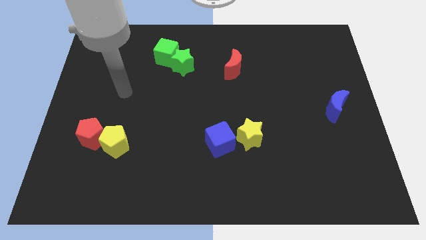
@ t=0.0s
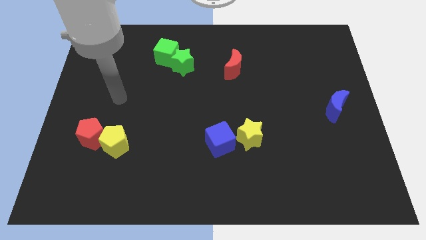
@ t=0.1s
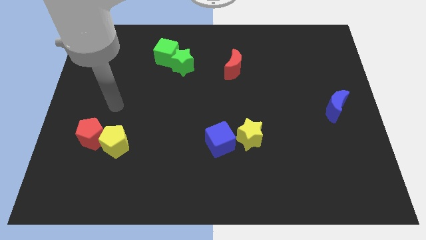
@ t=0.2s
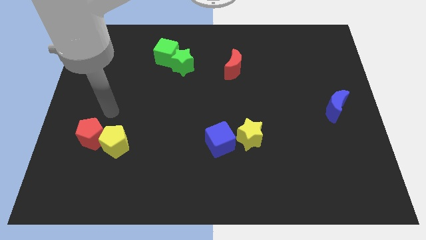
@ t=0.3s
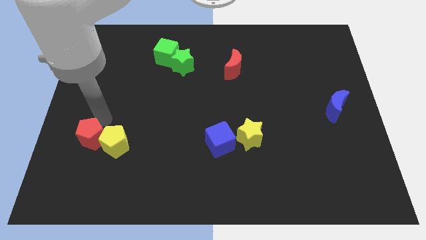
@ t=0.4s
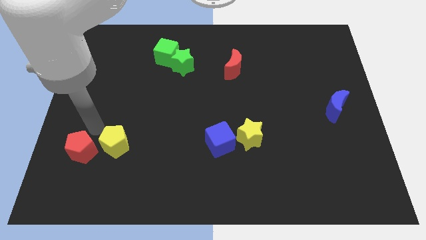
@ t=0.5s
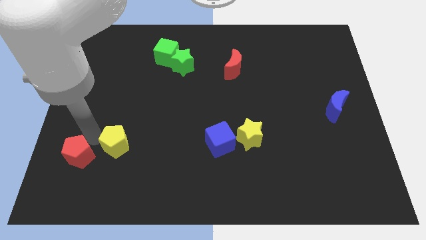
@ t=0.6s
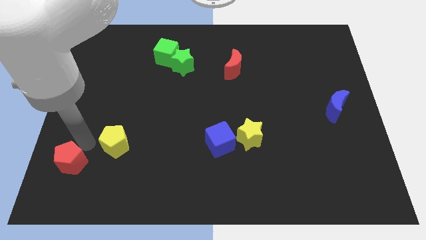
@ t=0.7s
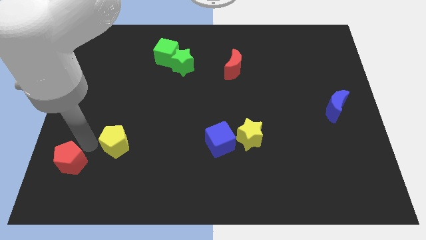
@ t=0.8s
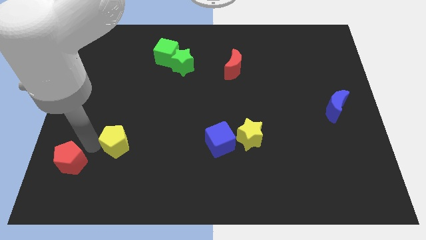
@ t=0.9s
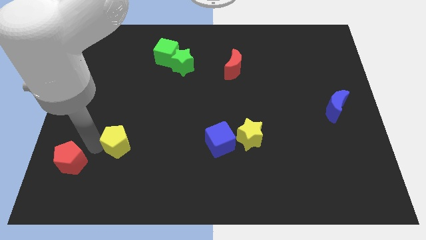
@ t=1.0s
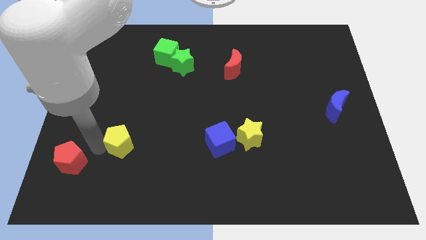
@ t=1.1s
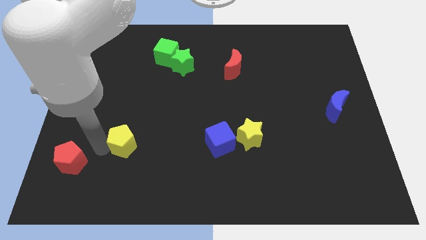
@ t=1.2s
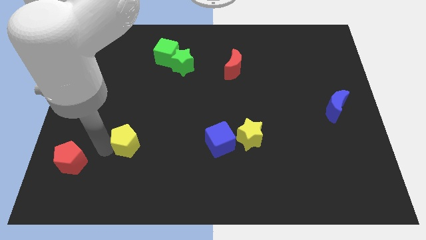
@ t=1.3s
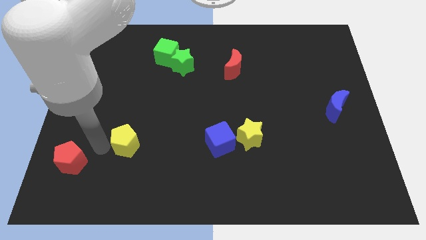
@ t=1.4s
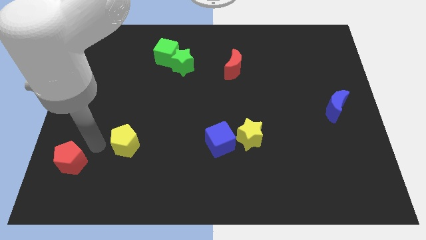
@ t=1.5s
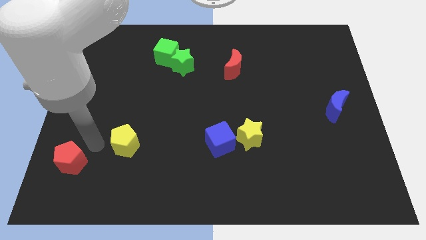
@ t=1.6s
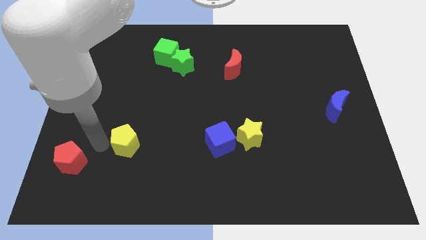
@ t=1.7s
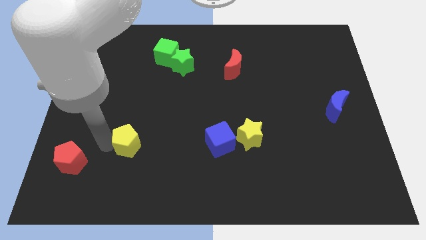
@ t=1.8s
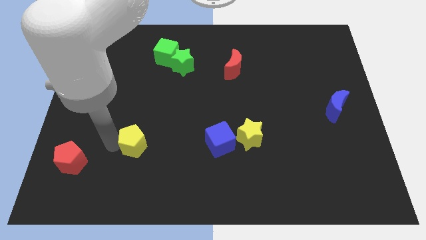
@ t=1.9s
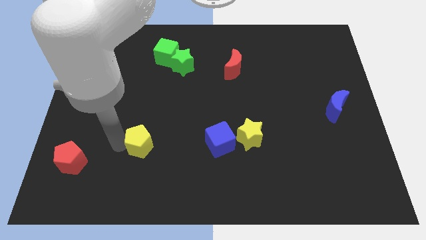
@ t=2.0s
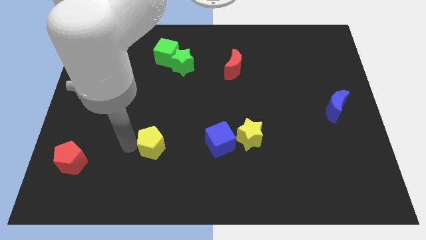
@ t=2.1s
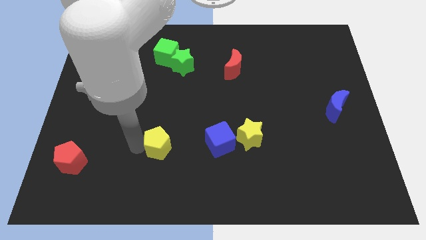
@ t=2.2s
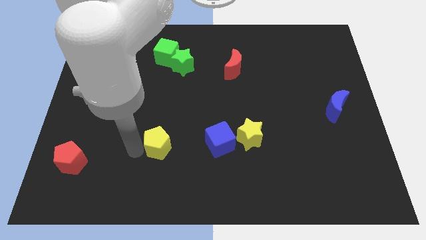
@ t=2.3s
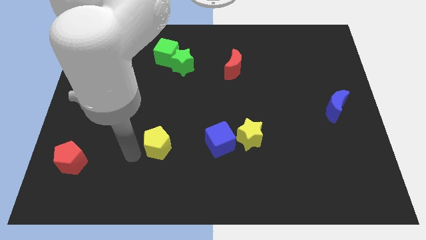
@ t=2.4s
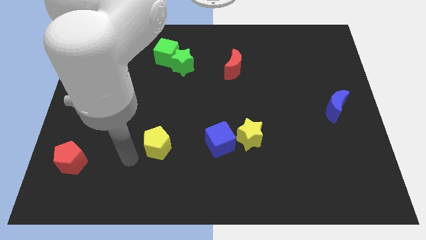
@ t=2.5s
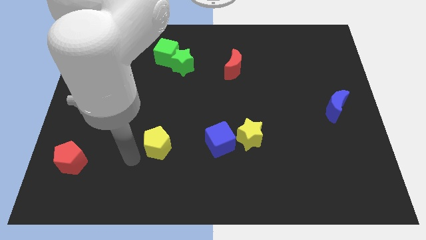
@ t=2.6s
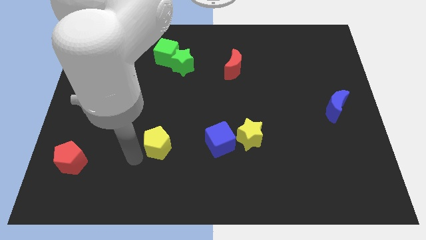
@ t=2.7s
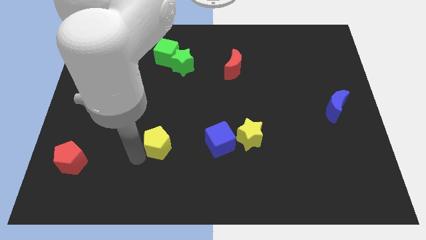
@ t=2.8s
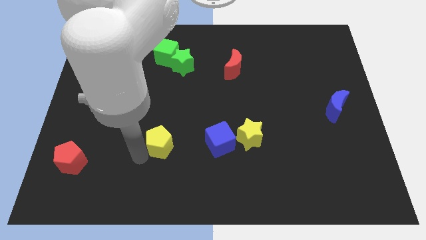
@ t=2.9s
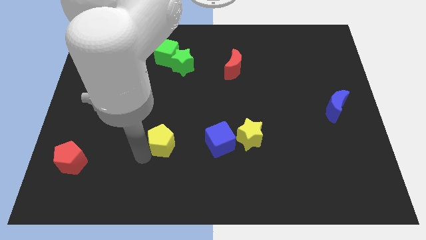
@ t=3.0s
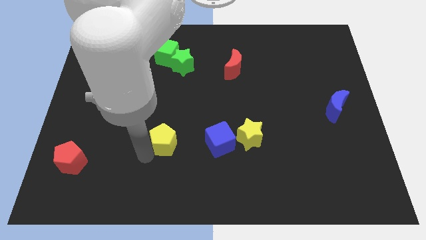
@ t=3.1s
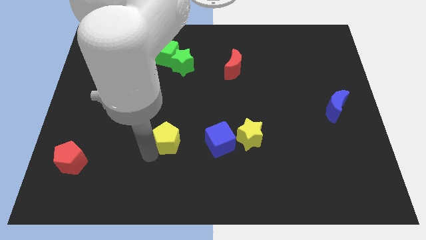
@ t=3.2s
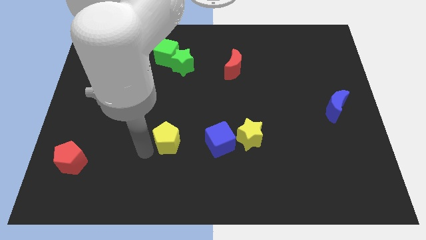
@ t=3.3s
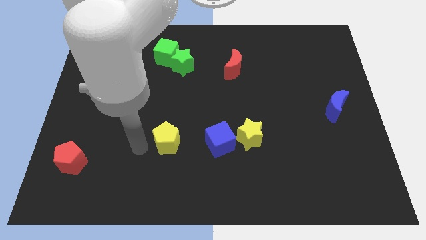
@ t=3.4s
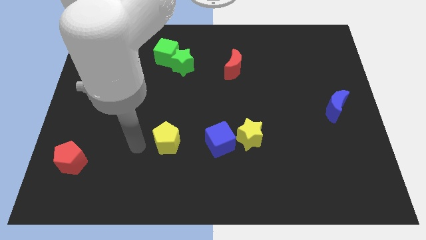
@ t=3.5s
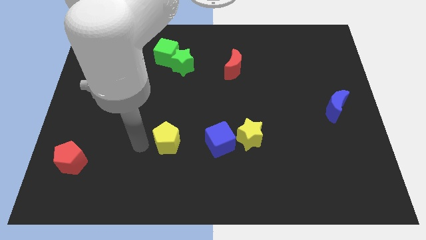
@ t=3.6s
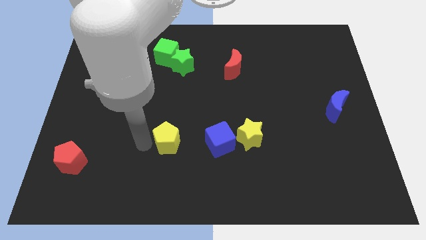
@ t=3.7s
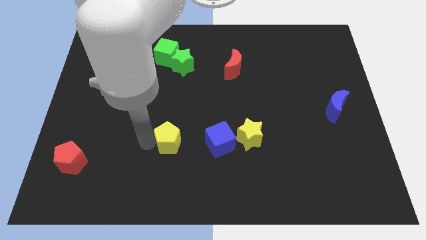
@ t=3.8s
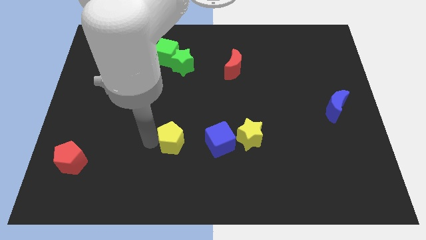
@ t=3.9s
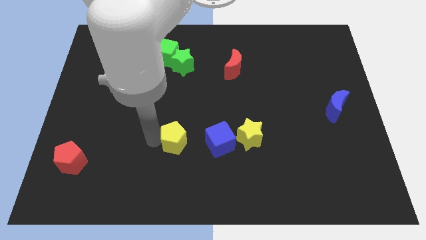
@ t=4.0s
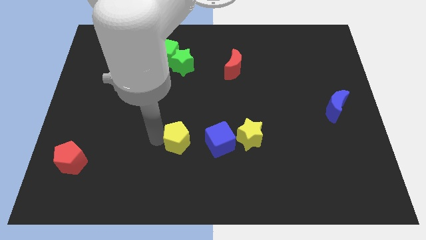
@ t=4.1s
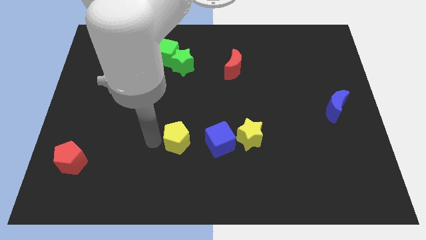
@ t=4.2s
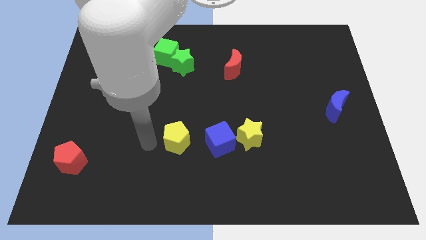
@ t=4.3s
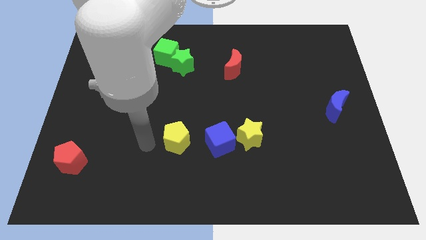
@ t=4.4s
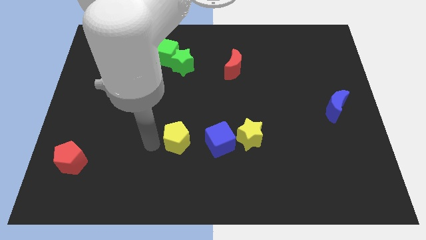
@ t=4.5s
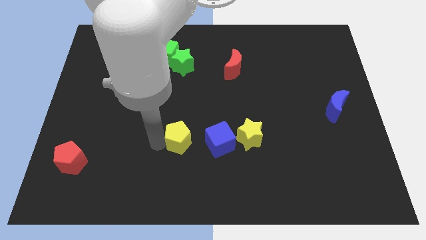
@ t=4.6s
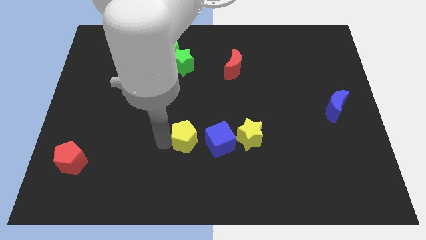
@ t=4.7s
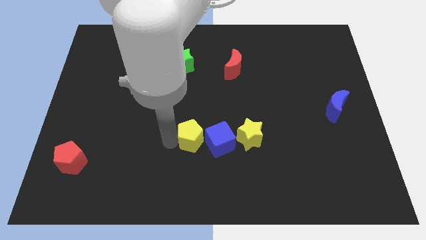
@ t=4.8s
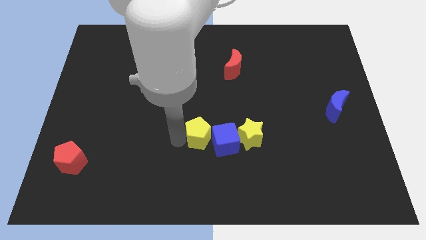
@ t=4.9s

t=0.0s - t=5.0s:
move the yellow pentagon to the blue cube

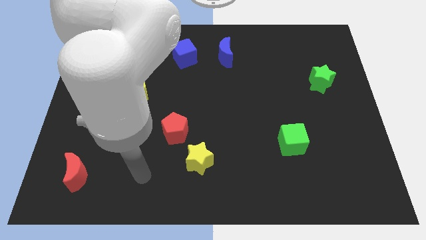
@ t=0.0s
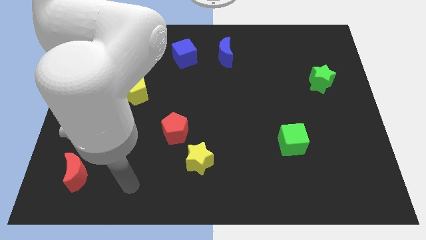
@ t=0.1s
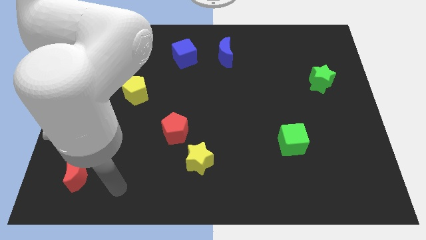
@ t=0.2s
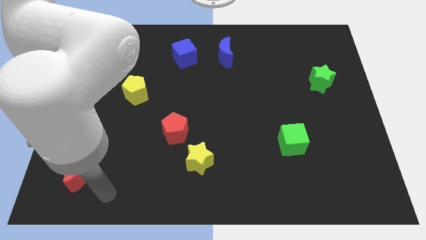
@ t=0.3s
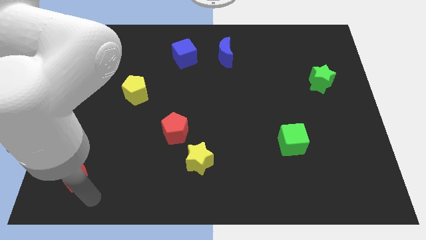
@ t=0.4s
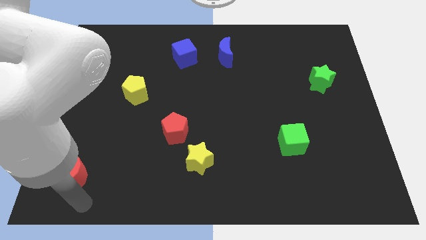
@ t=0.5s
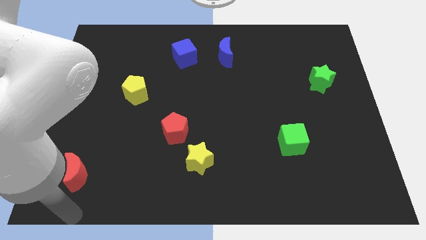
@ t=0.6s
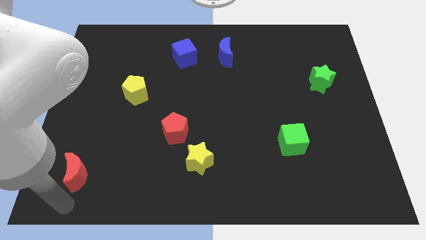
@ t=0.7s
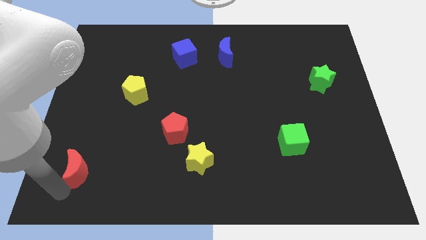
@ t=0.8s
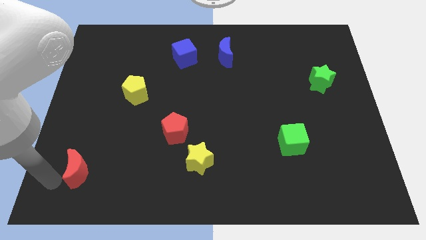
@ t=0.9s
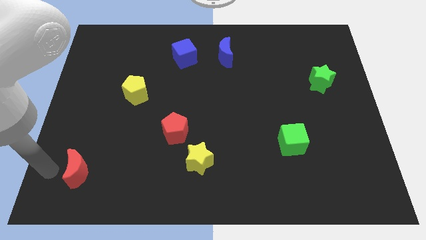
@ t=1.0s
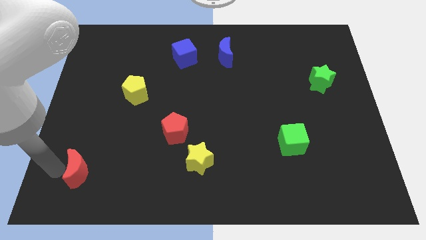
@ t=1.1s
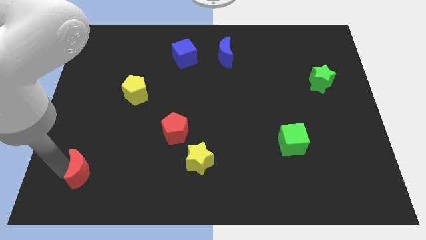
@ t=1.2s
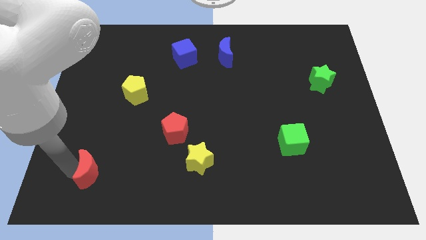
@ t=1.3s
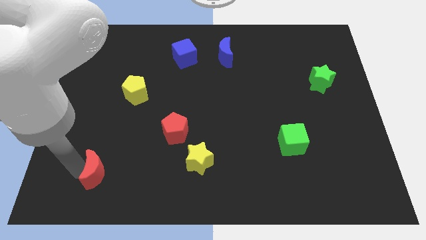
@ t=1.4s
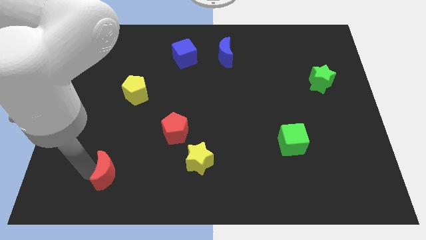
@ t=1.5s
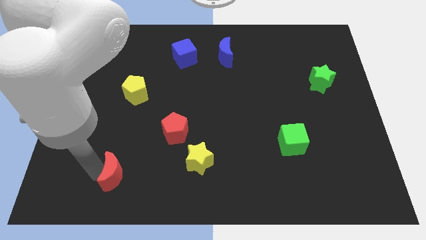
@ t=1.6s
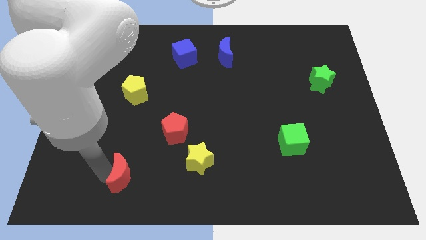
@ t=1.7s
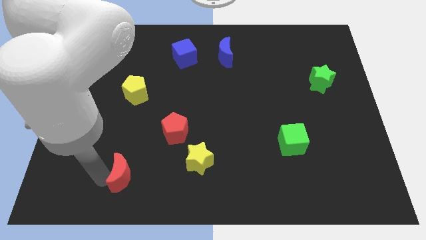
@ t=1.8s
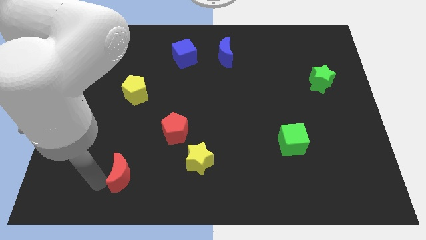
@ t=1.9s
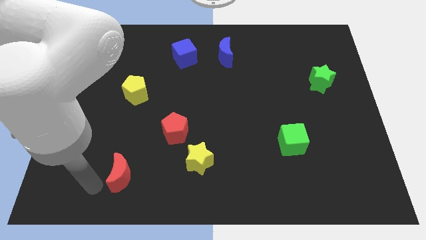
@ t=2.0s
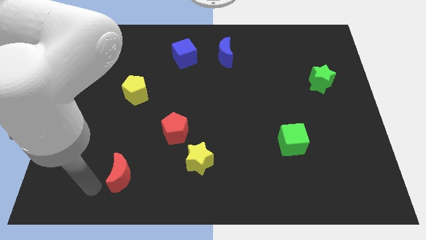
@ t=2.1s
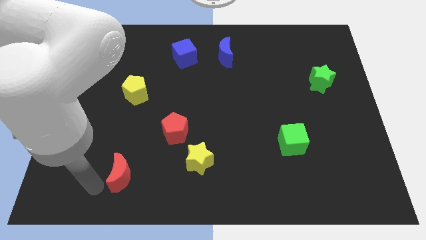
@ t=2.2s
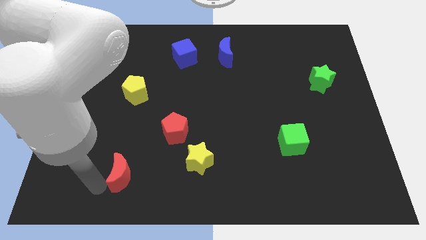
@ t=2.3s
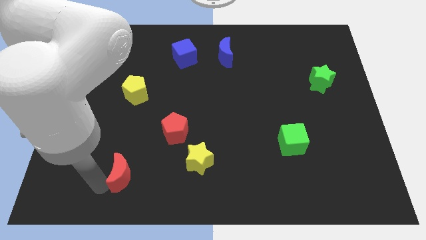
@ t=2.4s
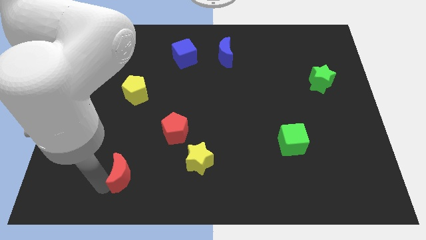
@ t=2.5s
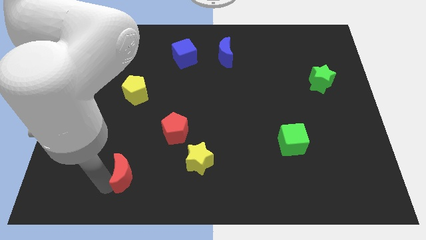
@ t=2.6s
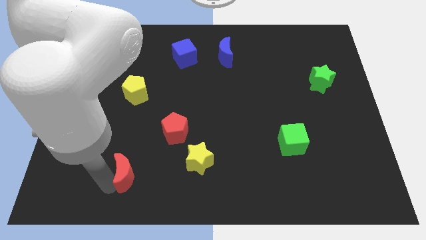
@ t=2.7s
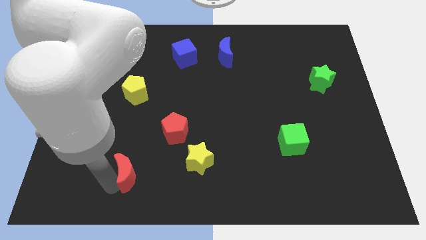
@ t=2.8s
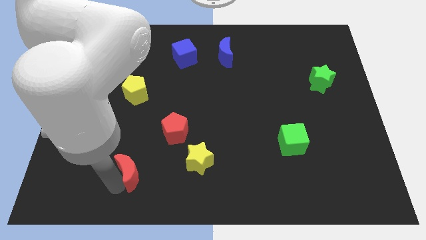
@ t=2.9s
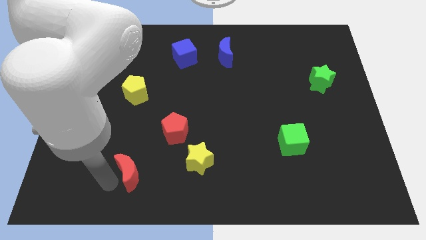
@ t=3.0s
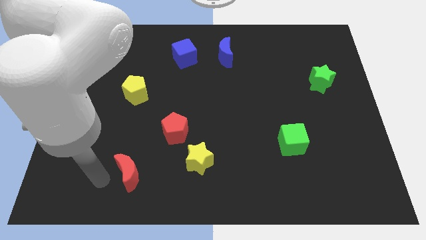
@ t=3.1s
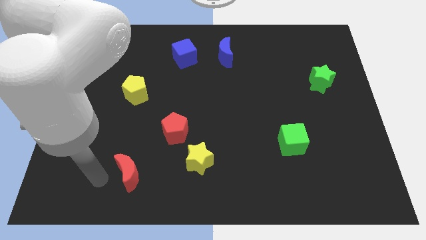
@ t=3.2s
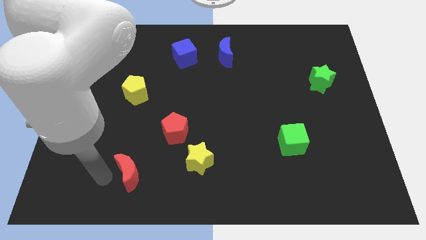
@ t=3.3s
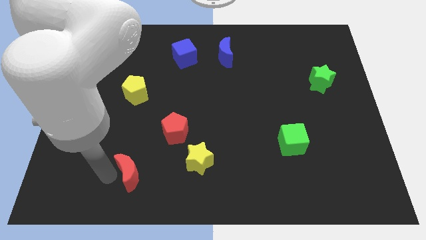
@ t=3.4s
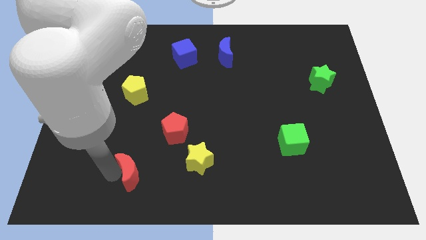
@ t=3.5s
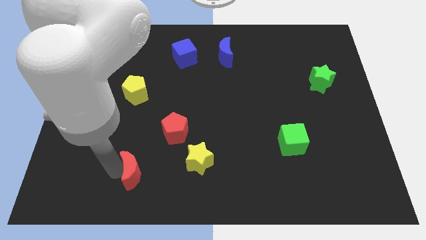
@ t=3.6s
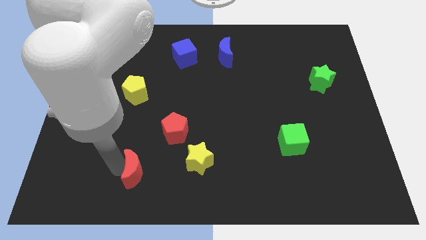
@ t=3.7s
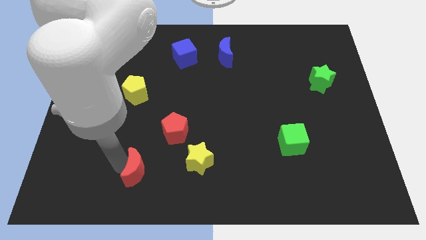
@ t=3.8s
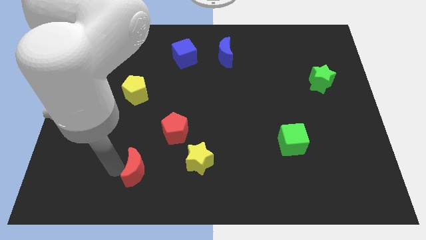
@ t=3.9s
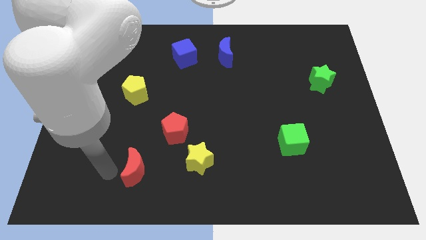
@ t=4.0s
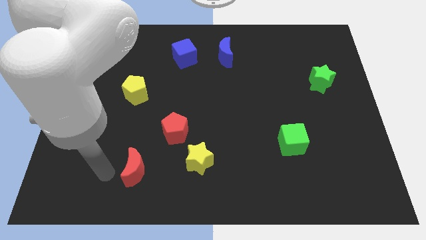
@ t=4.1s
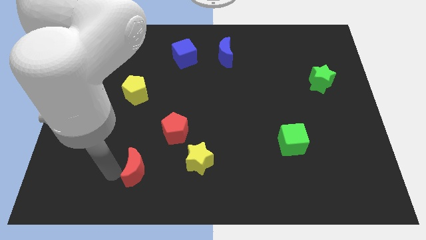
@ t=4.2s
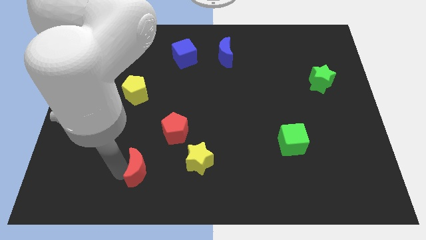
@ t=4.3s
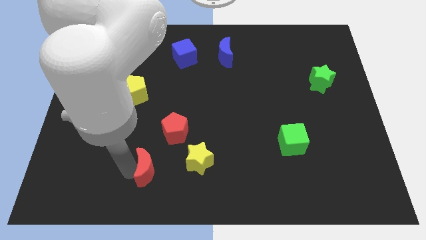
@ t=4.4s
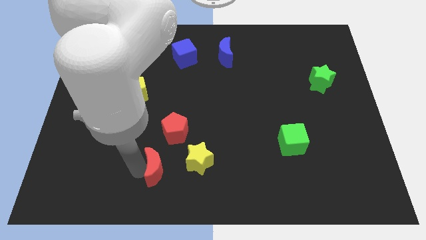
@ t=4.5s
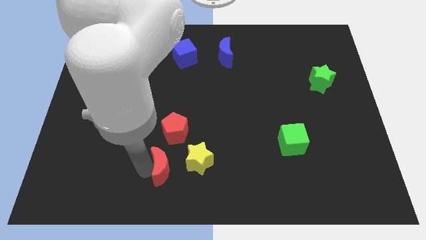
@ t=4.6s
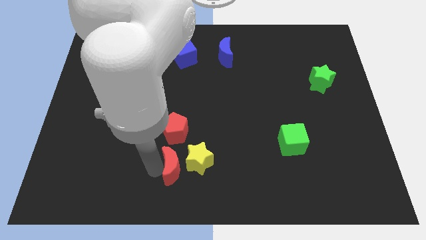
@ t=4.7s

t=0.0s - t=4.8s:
slide the red moon close to the yellow star
